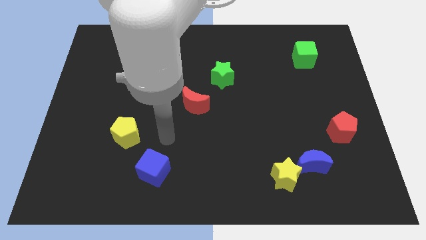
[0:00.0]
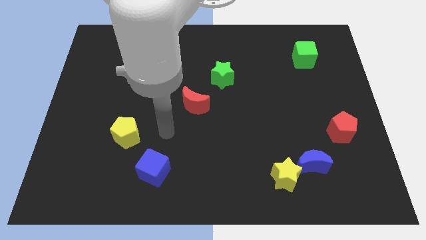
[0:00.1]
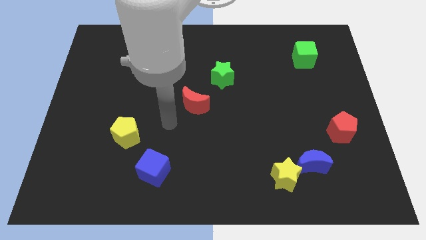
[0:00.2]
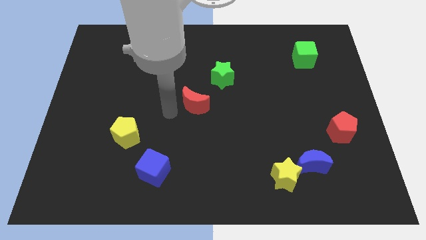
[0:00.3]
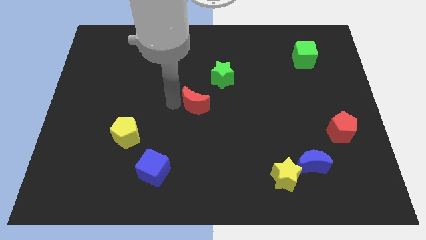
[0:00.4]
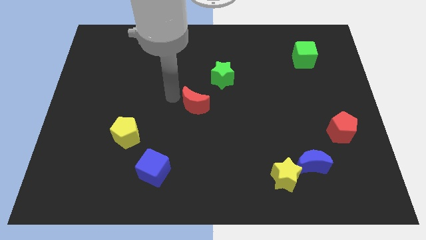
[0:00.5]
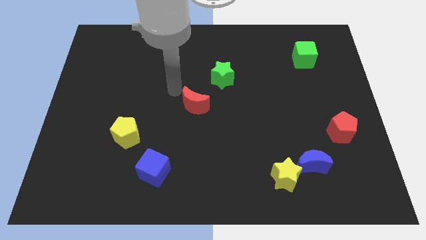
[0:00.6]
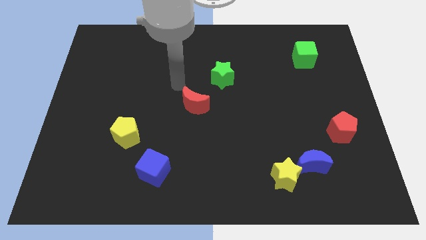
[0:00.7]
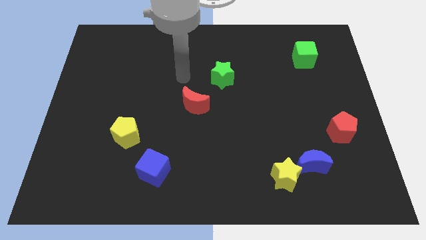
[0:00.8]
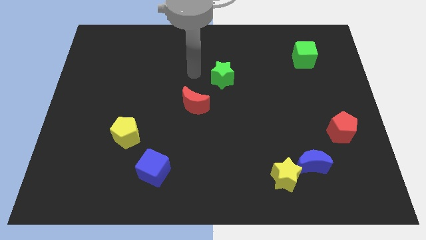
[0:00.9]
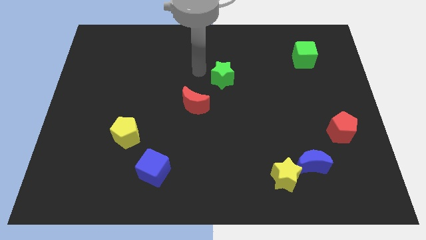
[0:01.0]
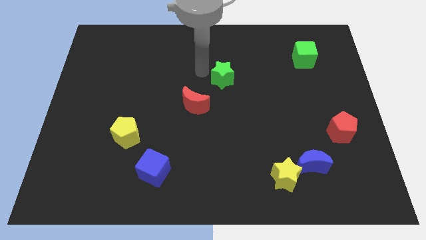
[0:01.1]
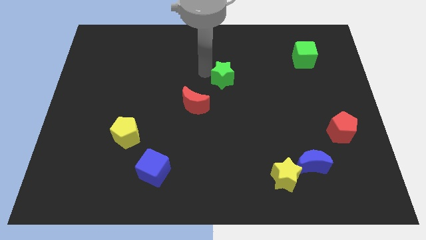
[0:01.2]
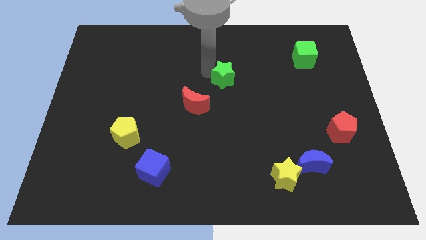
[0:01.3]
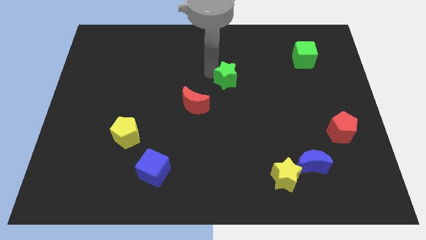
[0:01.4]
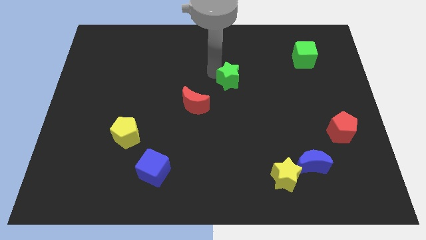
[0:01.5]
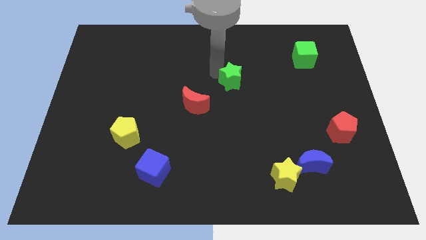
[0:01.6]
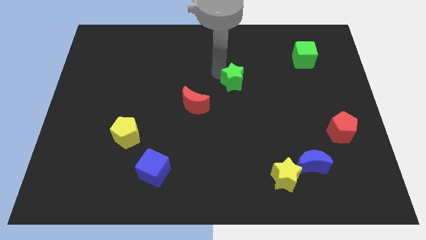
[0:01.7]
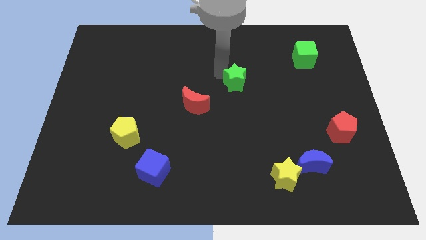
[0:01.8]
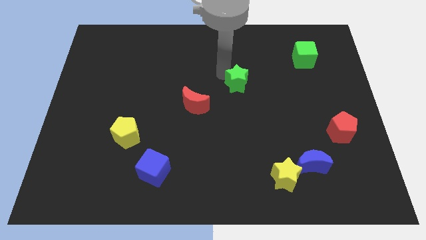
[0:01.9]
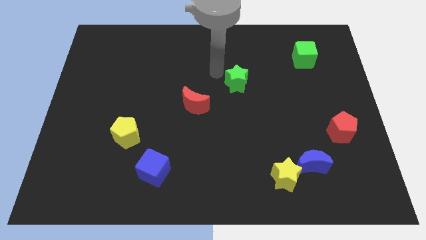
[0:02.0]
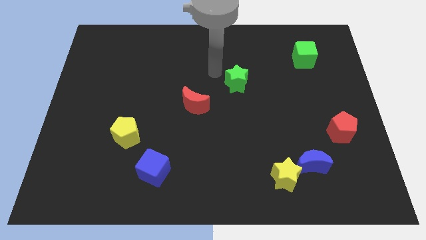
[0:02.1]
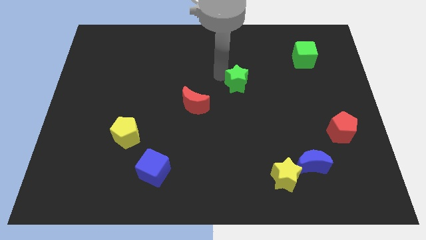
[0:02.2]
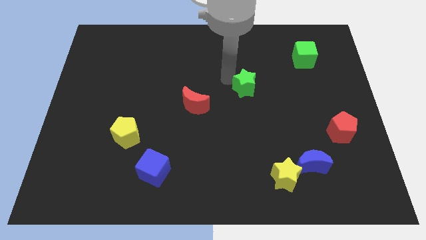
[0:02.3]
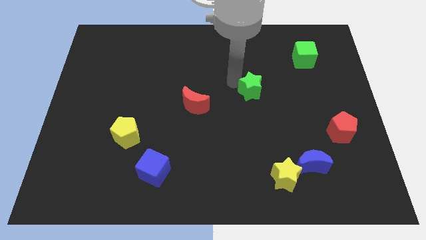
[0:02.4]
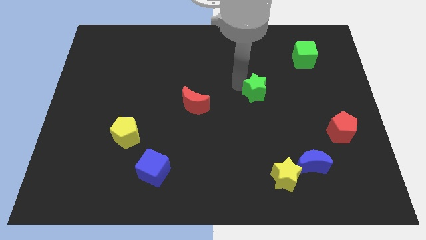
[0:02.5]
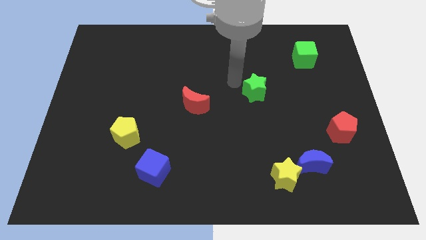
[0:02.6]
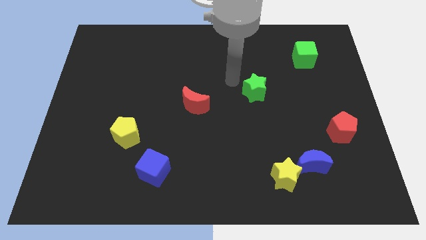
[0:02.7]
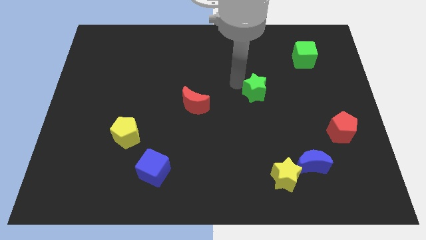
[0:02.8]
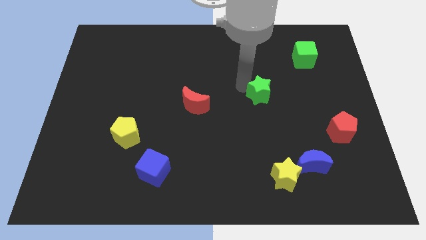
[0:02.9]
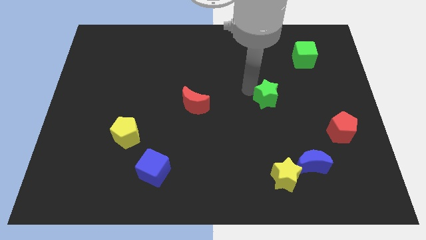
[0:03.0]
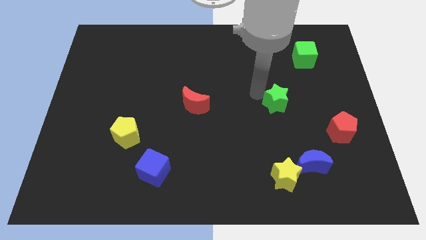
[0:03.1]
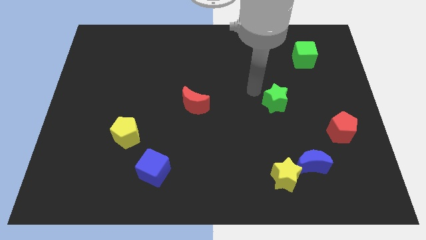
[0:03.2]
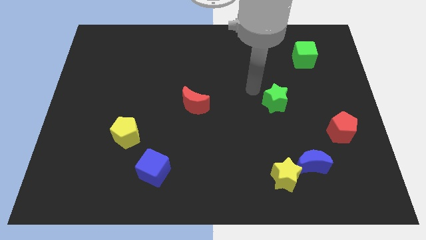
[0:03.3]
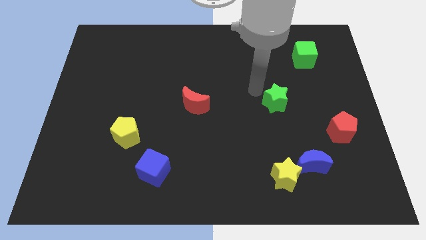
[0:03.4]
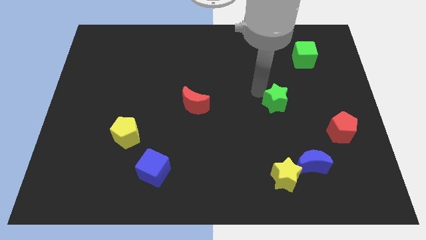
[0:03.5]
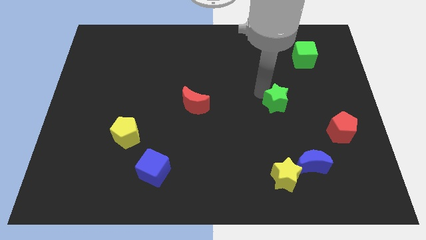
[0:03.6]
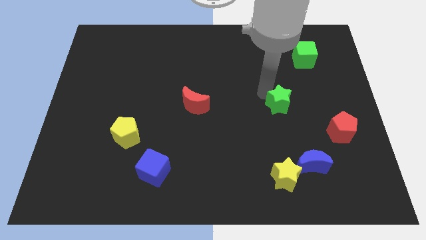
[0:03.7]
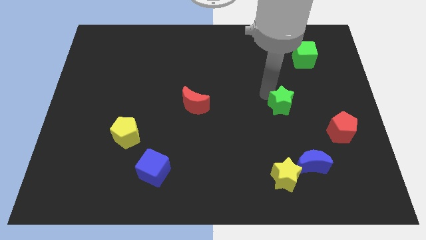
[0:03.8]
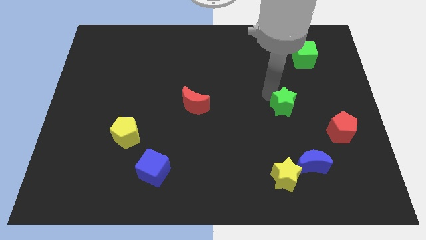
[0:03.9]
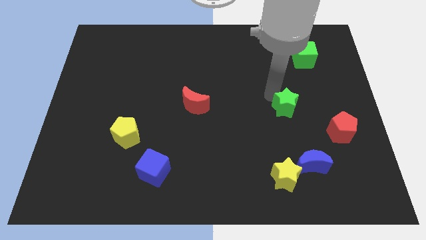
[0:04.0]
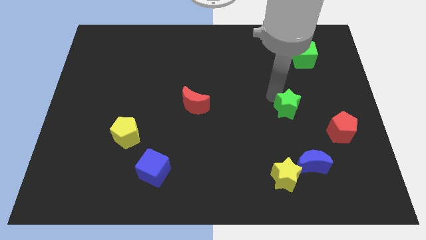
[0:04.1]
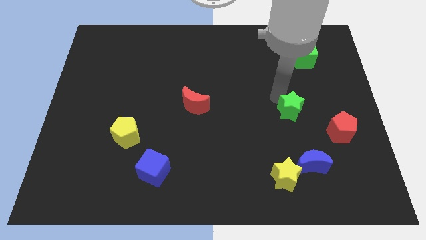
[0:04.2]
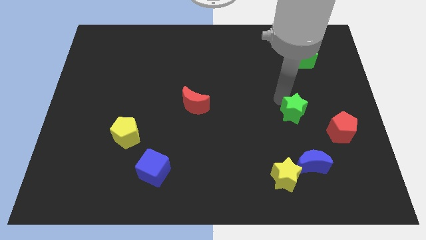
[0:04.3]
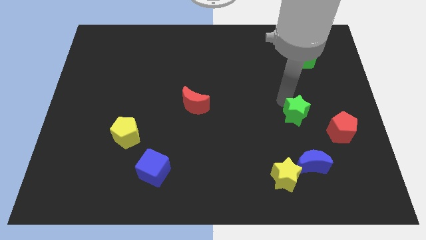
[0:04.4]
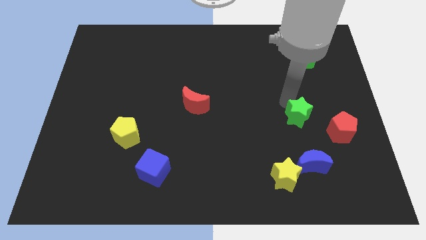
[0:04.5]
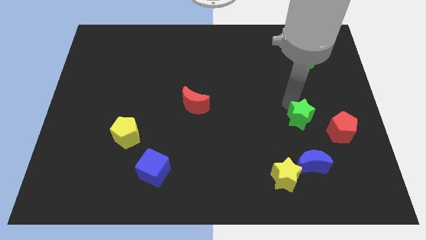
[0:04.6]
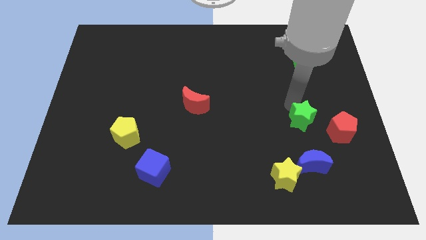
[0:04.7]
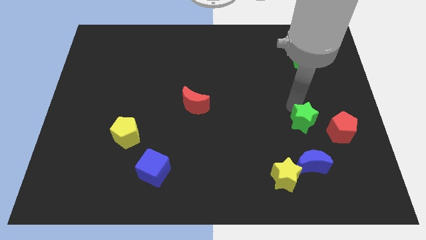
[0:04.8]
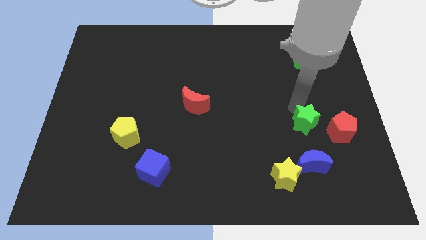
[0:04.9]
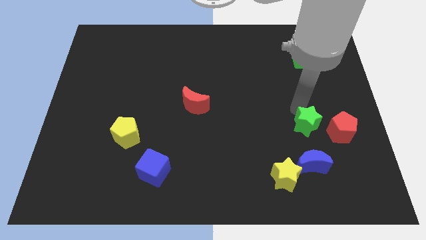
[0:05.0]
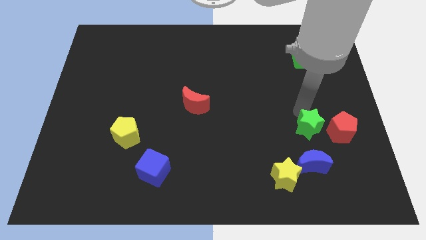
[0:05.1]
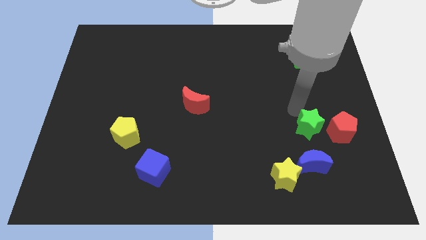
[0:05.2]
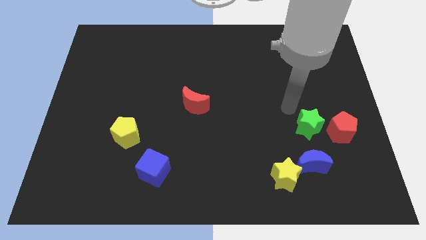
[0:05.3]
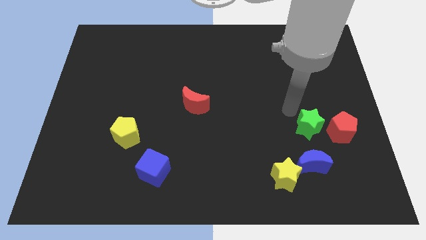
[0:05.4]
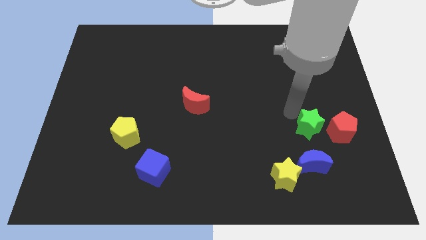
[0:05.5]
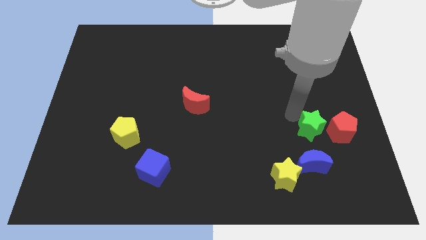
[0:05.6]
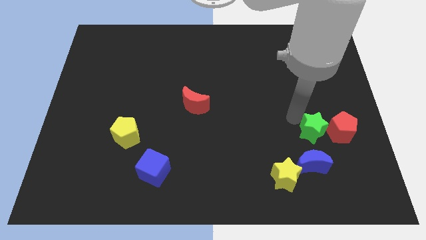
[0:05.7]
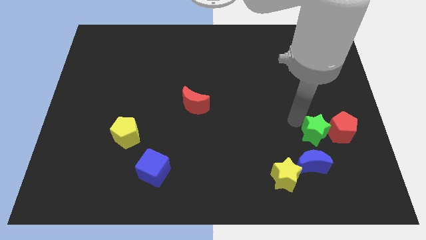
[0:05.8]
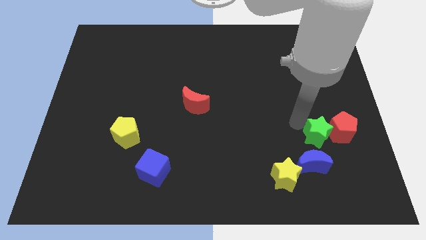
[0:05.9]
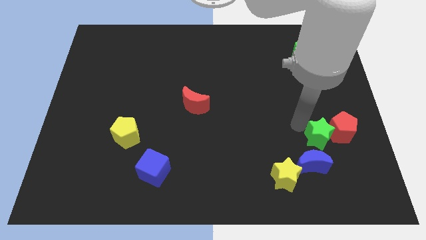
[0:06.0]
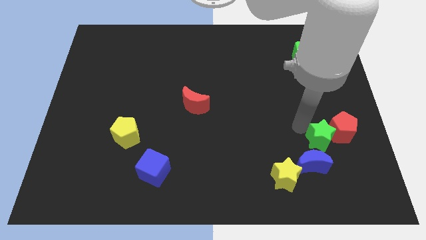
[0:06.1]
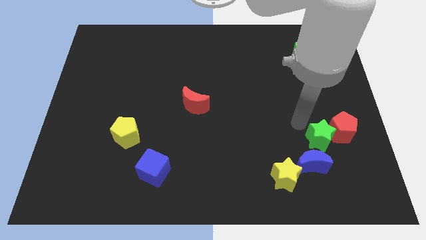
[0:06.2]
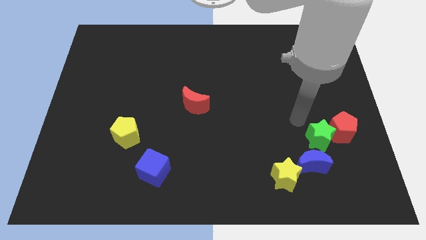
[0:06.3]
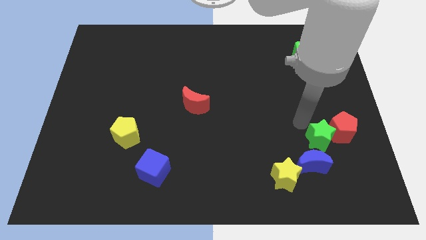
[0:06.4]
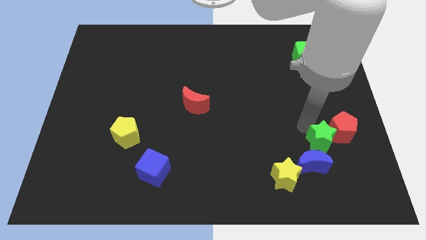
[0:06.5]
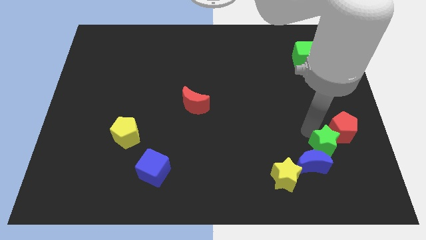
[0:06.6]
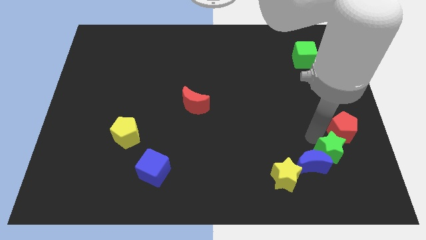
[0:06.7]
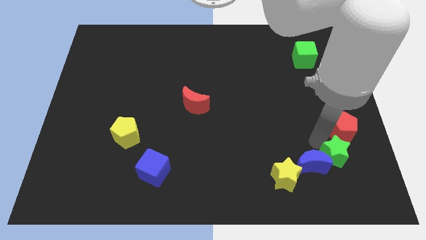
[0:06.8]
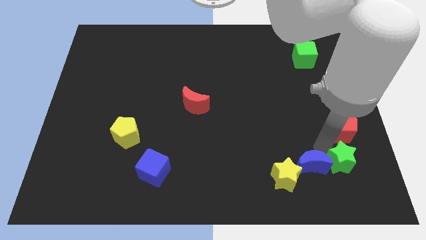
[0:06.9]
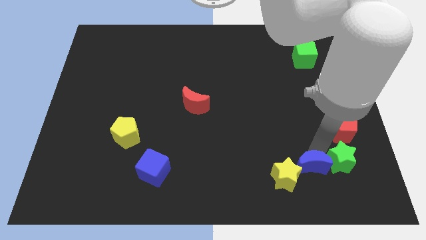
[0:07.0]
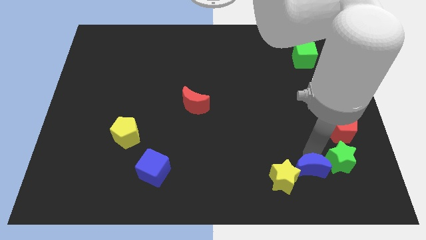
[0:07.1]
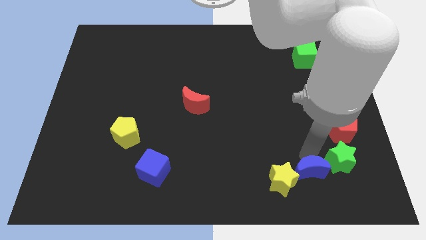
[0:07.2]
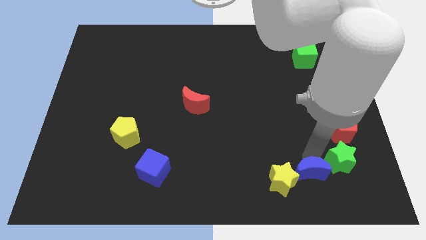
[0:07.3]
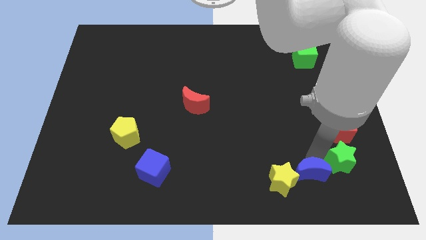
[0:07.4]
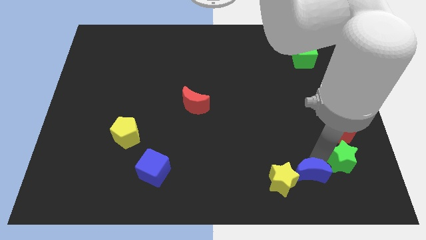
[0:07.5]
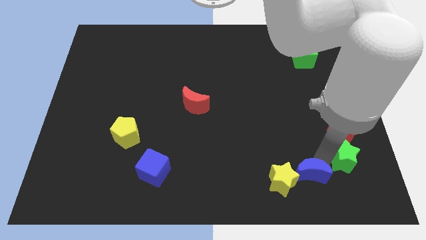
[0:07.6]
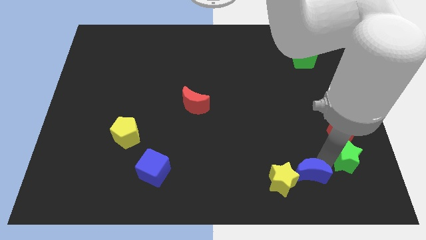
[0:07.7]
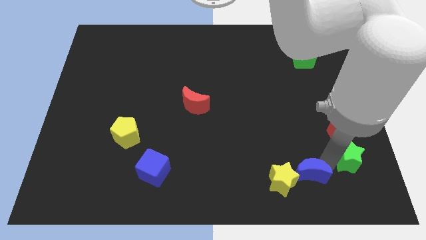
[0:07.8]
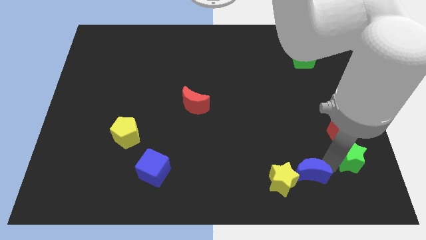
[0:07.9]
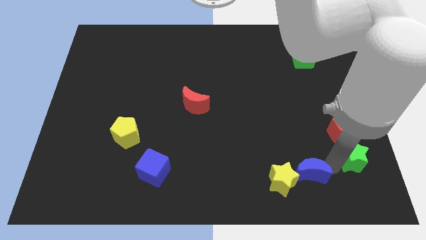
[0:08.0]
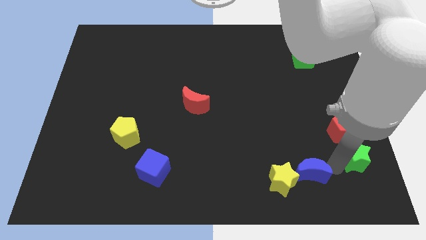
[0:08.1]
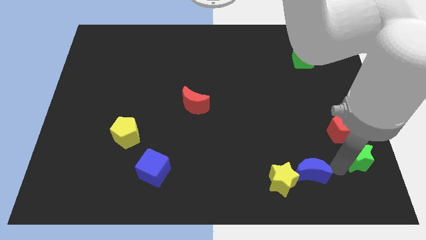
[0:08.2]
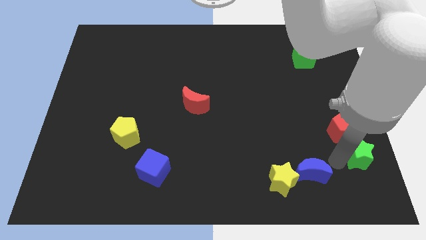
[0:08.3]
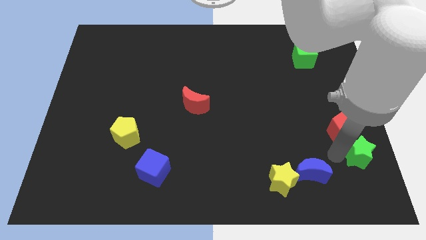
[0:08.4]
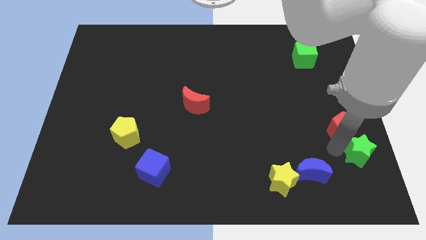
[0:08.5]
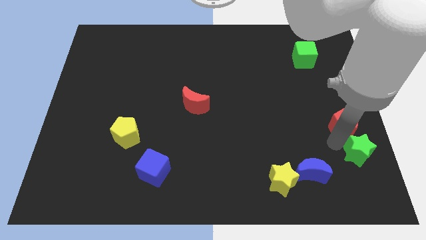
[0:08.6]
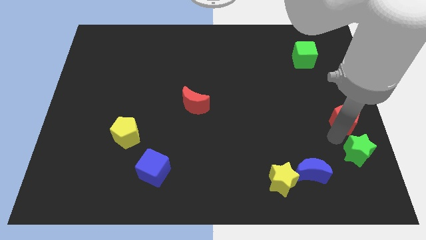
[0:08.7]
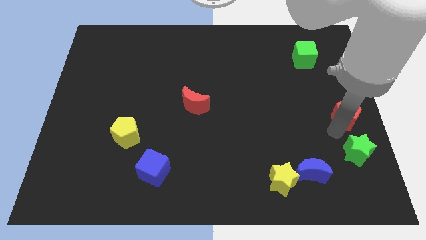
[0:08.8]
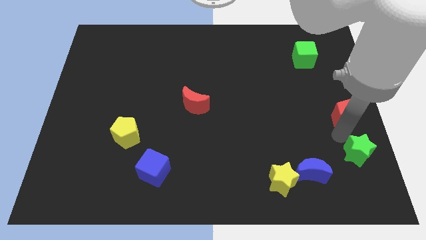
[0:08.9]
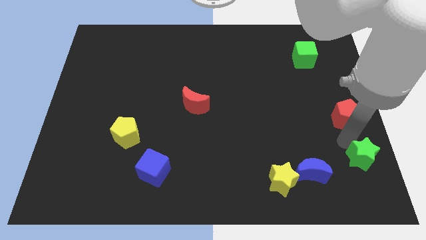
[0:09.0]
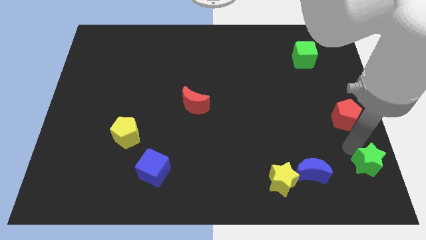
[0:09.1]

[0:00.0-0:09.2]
slide the green star to the bottom right of the board
